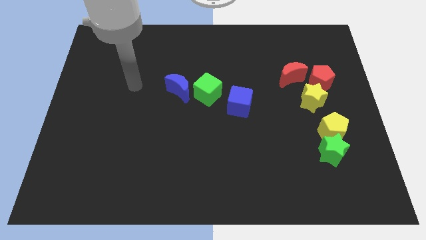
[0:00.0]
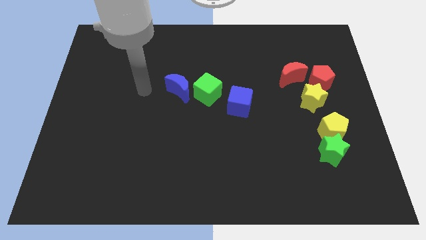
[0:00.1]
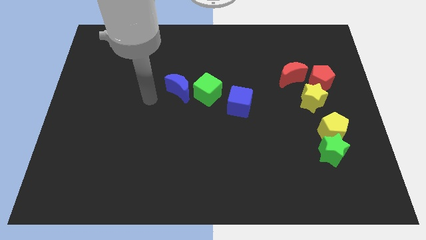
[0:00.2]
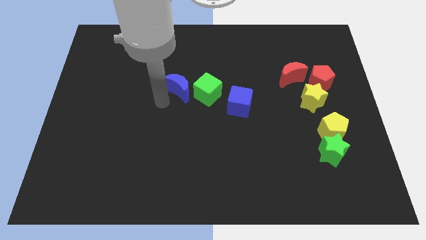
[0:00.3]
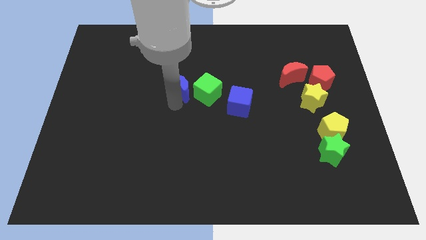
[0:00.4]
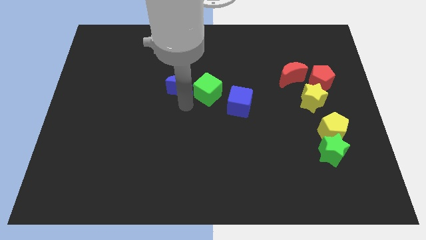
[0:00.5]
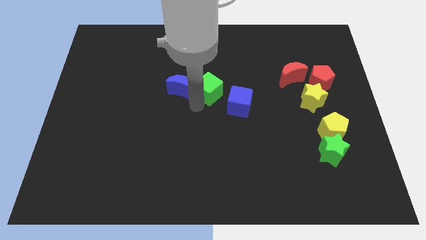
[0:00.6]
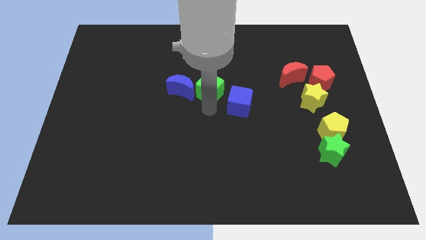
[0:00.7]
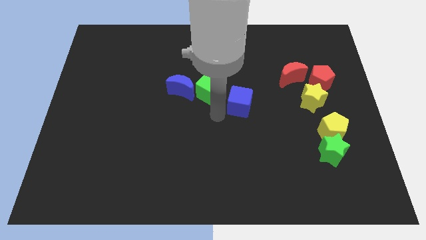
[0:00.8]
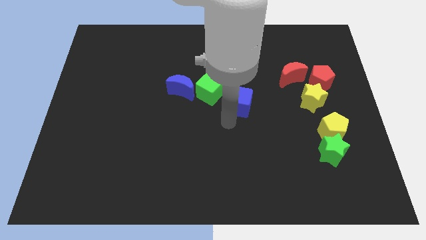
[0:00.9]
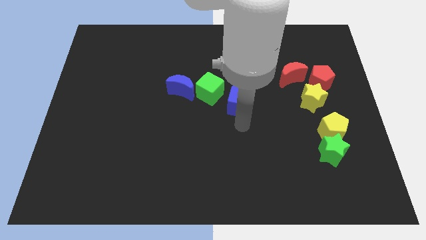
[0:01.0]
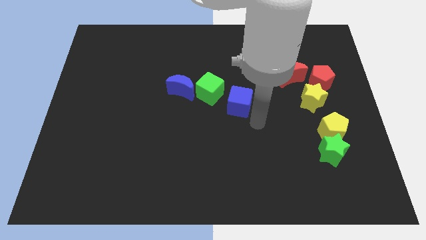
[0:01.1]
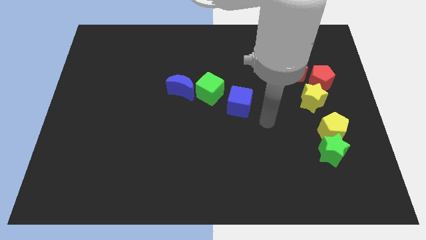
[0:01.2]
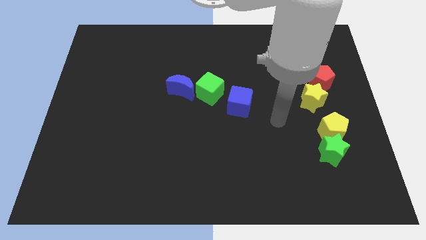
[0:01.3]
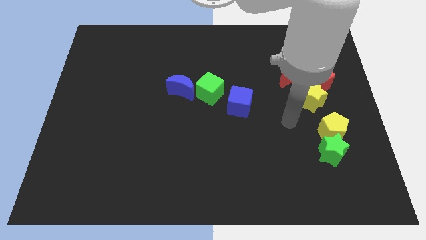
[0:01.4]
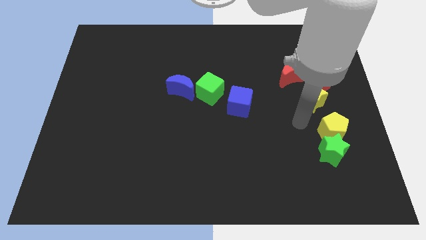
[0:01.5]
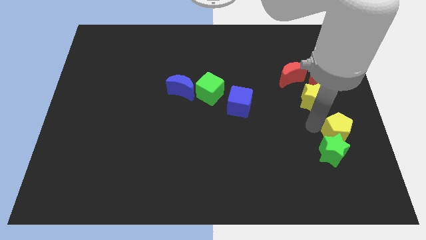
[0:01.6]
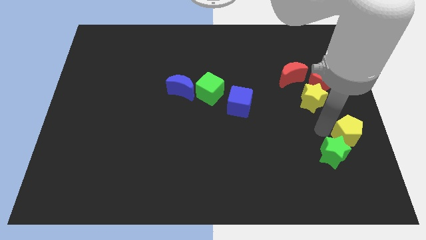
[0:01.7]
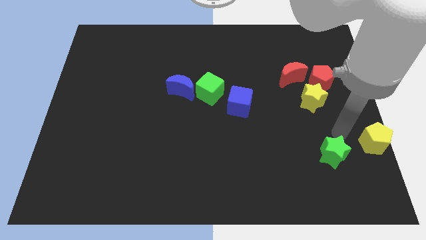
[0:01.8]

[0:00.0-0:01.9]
move the green star away from the yellow pentagon

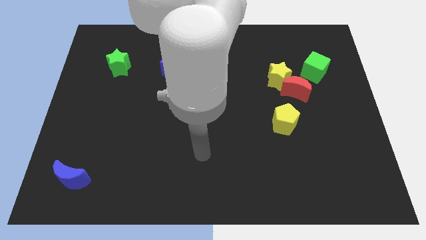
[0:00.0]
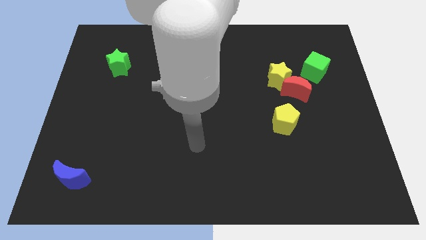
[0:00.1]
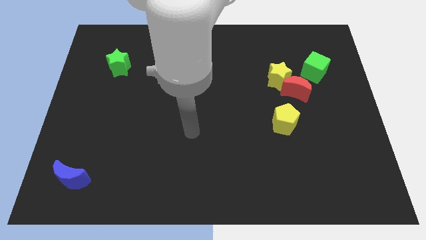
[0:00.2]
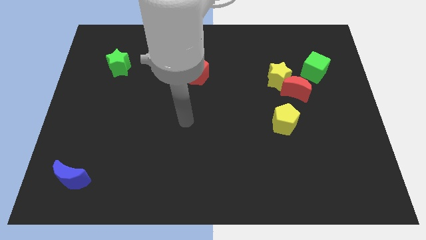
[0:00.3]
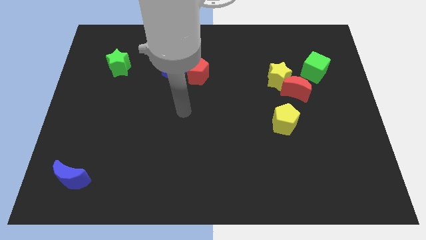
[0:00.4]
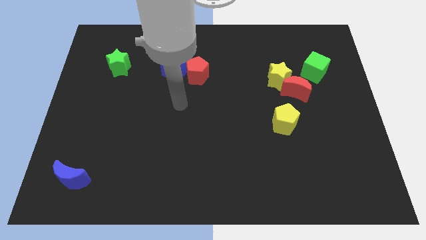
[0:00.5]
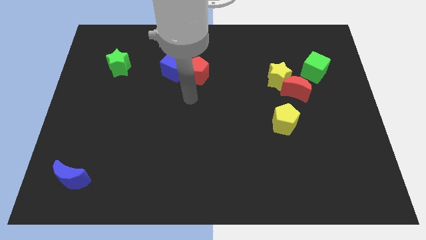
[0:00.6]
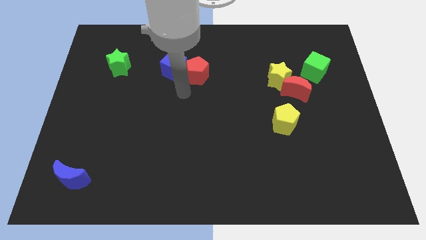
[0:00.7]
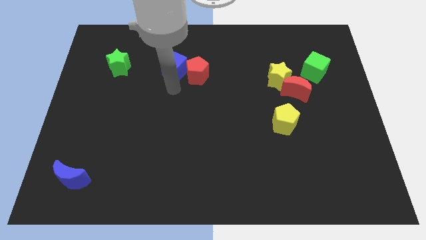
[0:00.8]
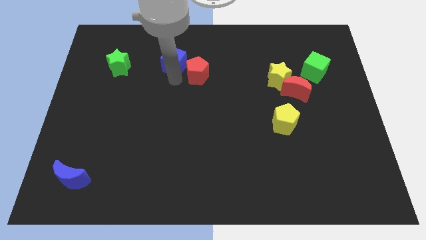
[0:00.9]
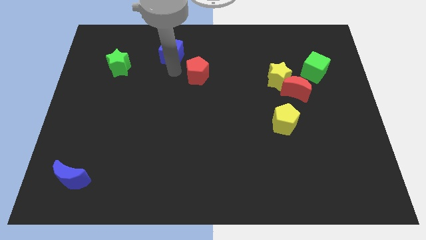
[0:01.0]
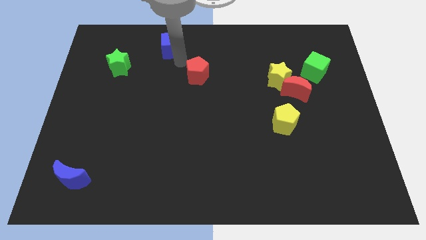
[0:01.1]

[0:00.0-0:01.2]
pull the red pentagon apart from the blue cube

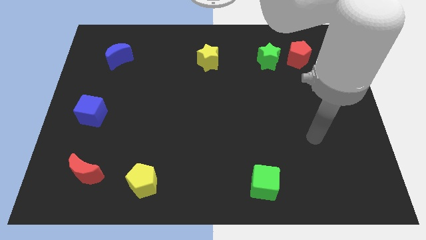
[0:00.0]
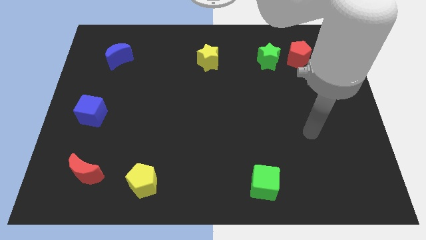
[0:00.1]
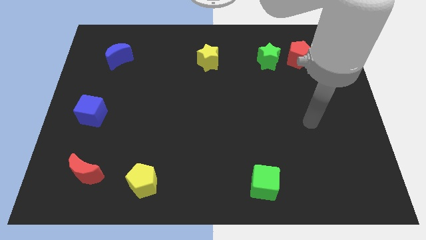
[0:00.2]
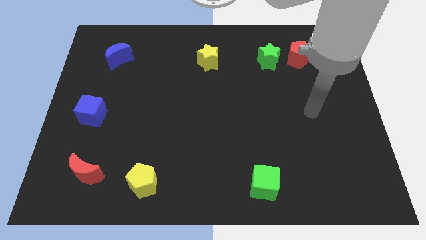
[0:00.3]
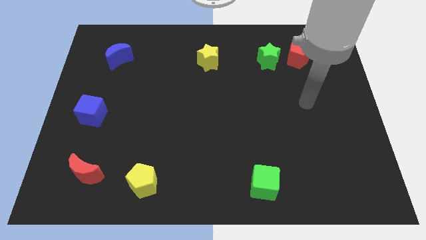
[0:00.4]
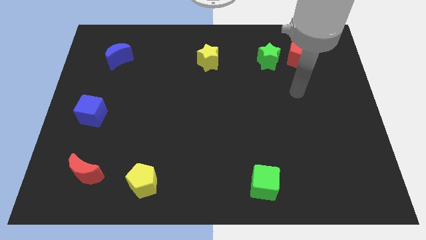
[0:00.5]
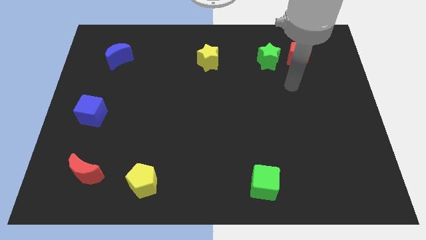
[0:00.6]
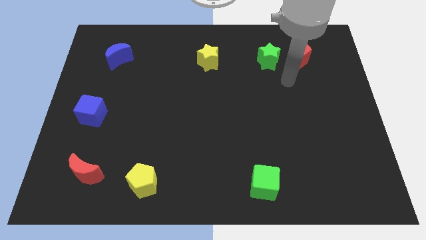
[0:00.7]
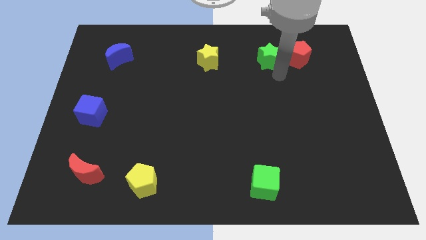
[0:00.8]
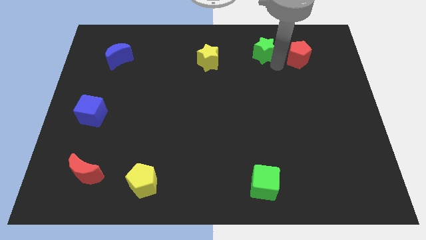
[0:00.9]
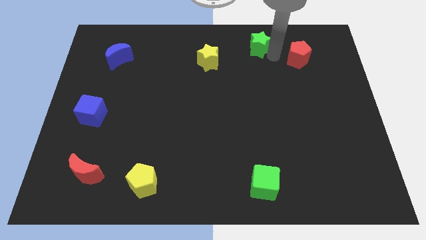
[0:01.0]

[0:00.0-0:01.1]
pull the red pentagon apart from the green star

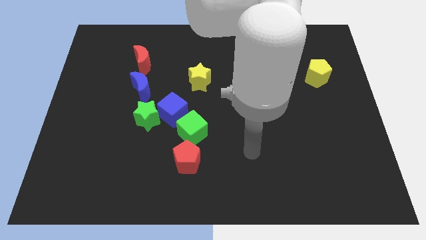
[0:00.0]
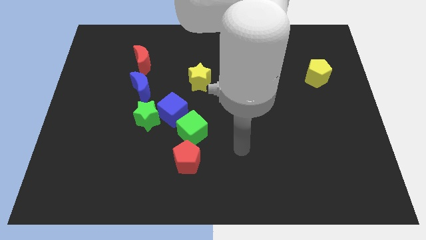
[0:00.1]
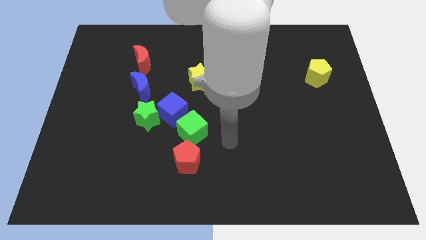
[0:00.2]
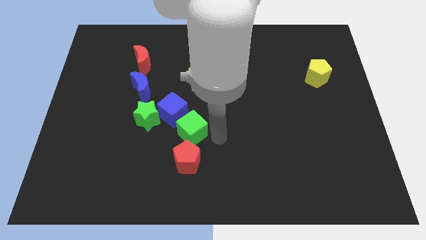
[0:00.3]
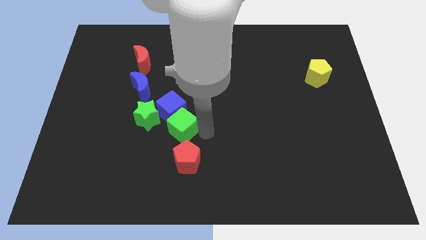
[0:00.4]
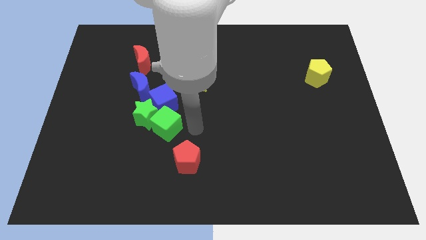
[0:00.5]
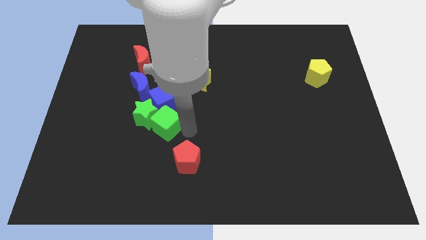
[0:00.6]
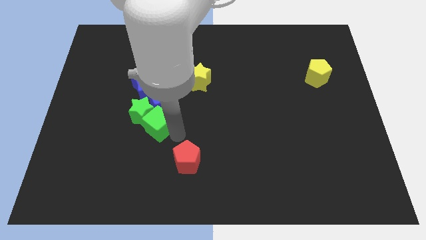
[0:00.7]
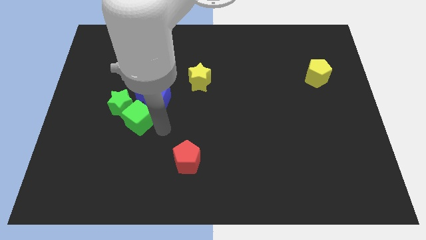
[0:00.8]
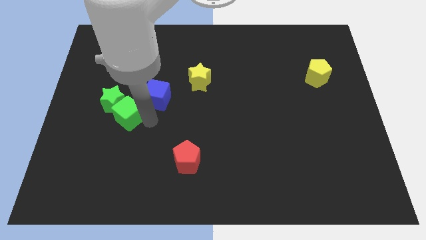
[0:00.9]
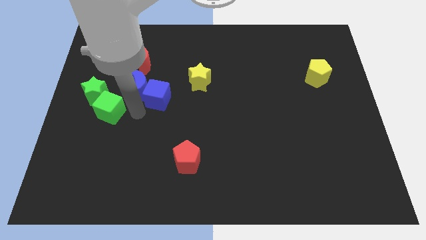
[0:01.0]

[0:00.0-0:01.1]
move the blue cube away from the green star and green cube

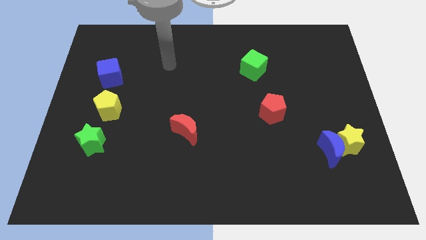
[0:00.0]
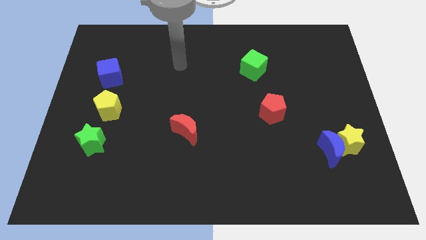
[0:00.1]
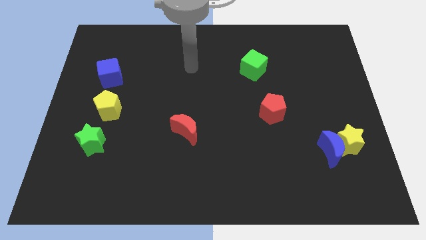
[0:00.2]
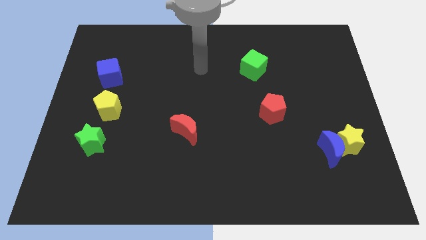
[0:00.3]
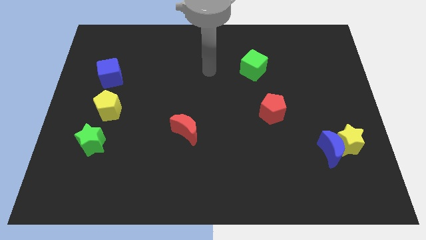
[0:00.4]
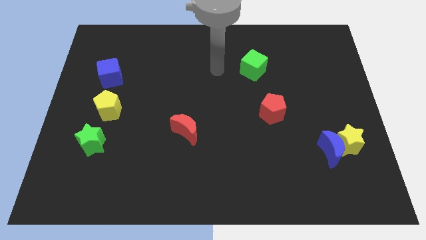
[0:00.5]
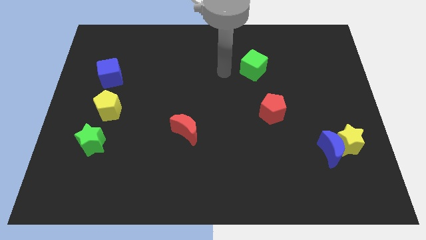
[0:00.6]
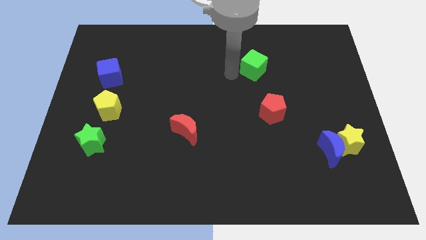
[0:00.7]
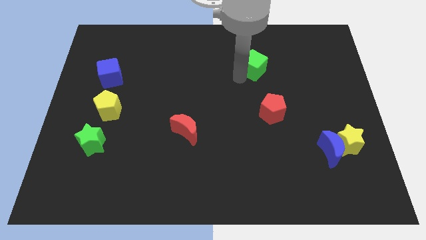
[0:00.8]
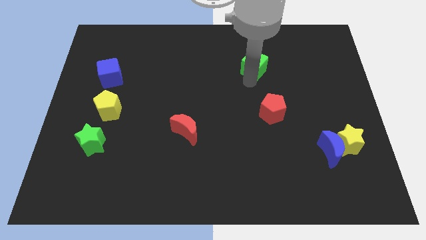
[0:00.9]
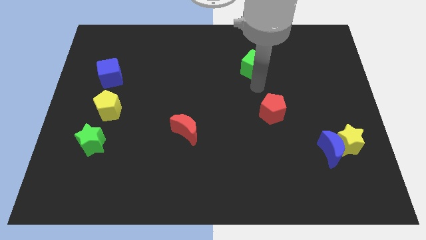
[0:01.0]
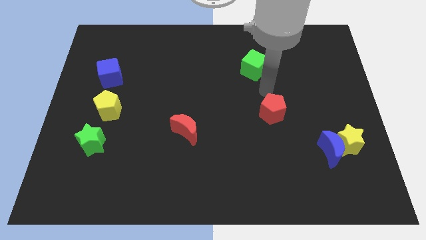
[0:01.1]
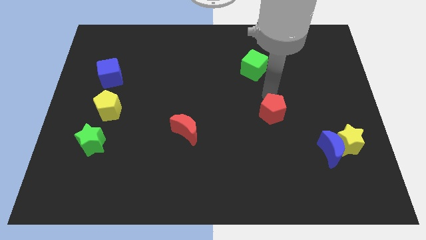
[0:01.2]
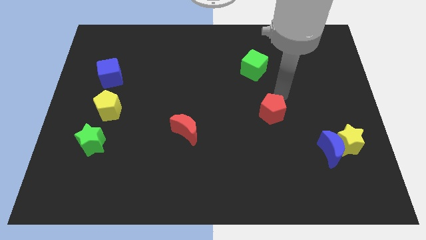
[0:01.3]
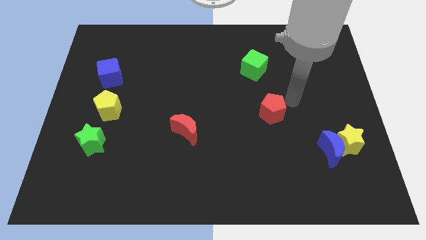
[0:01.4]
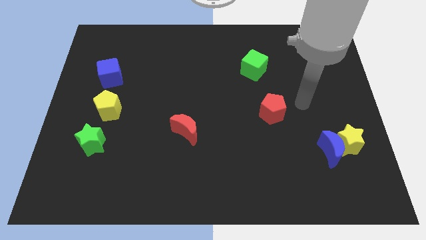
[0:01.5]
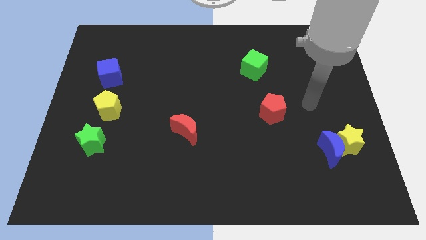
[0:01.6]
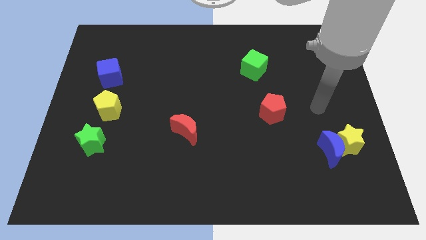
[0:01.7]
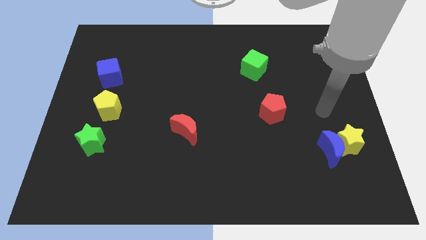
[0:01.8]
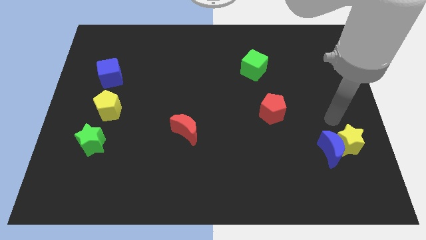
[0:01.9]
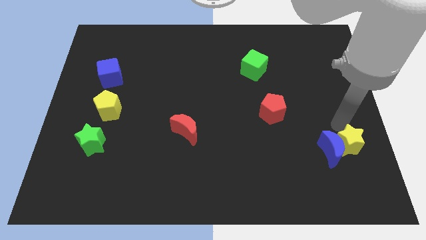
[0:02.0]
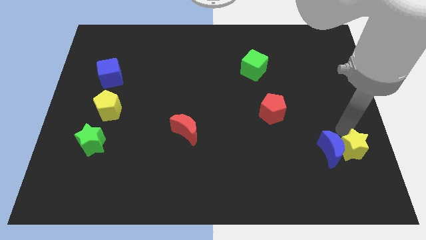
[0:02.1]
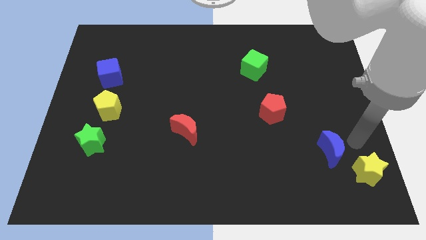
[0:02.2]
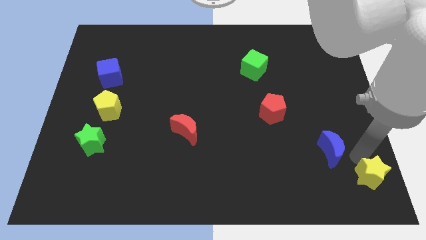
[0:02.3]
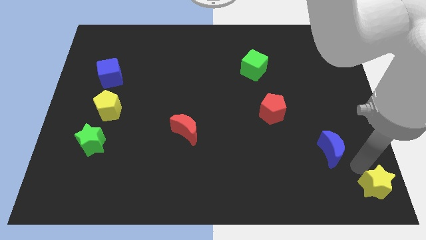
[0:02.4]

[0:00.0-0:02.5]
pull the blue moon apart from the yellow star

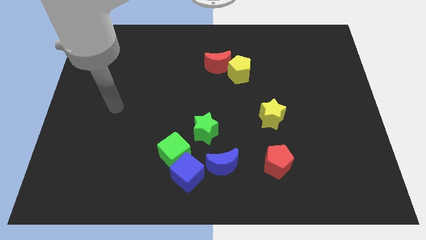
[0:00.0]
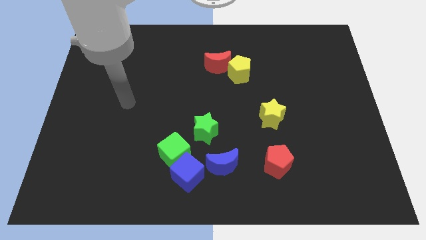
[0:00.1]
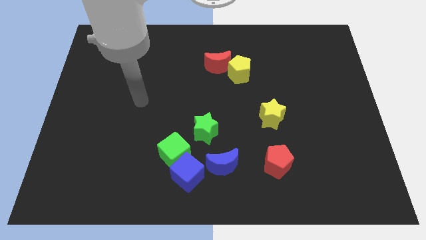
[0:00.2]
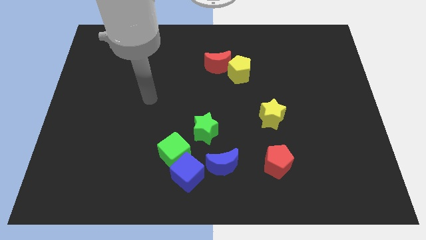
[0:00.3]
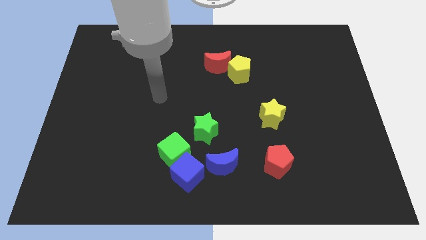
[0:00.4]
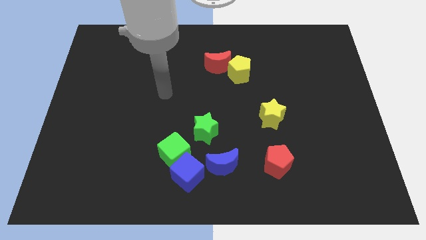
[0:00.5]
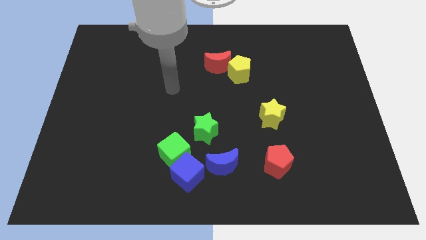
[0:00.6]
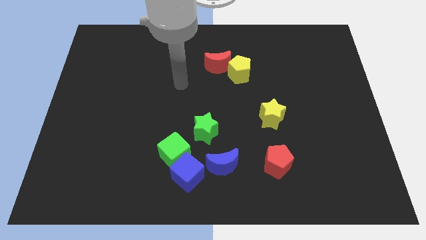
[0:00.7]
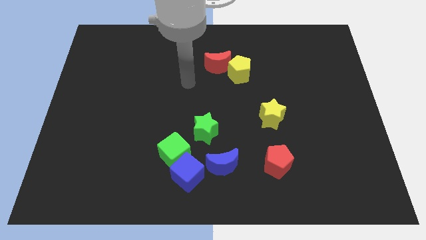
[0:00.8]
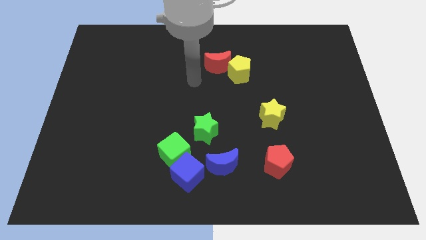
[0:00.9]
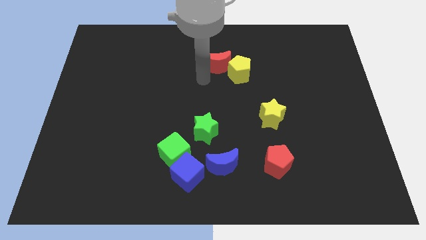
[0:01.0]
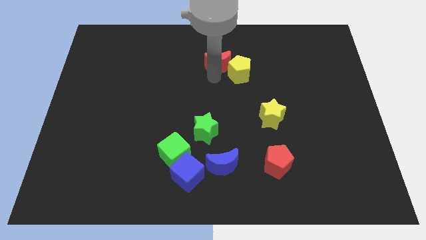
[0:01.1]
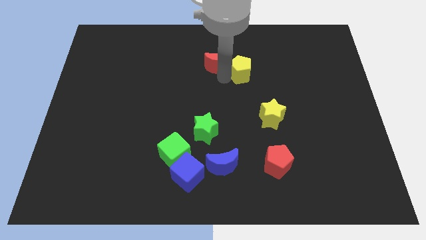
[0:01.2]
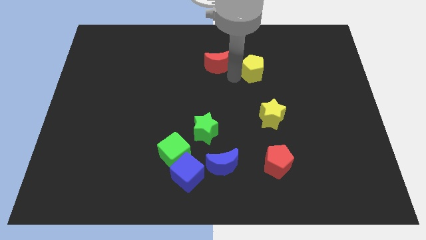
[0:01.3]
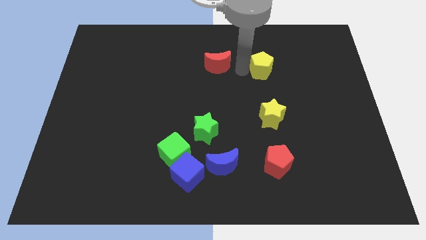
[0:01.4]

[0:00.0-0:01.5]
move the red moon away from the yellow pentagon
